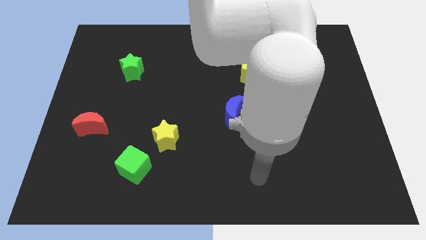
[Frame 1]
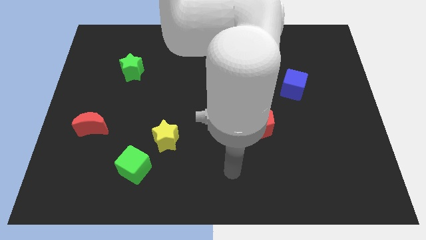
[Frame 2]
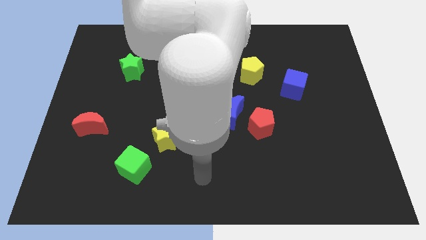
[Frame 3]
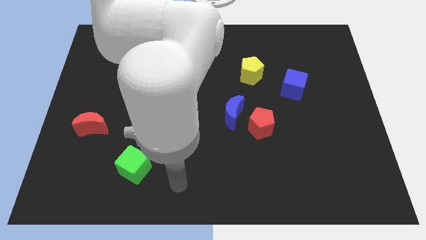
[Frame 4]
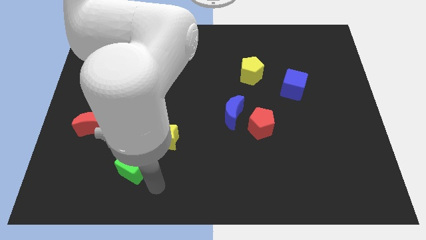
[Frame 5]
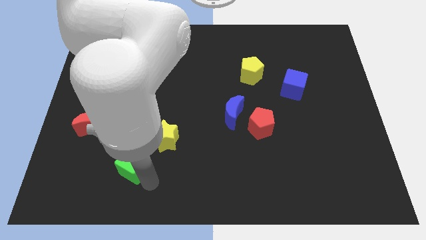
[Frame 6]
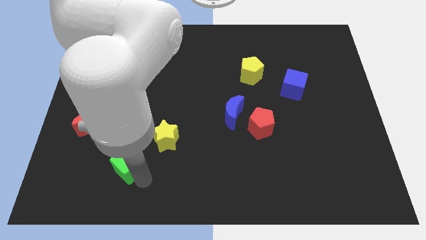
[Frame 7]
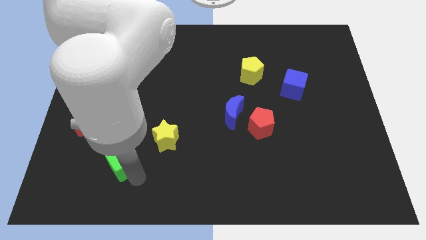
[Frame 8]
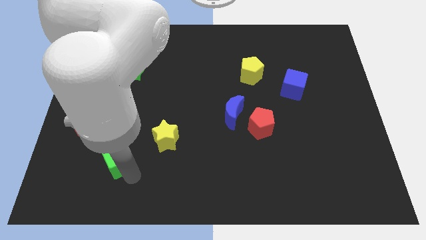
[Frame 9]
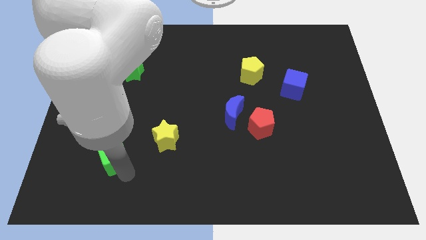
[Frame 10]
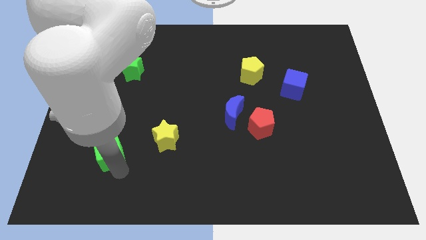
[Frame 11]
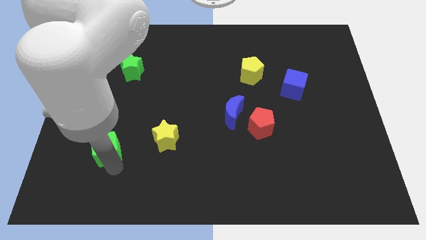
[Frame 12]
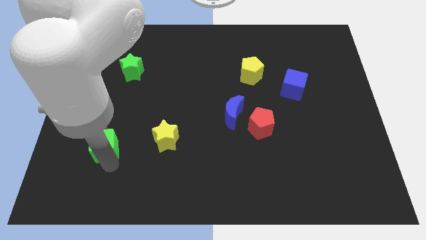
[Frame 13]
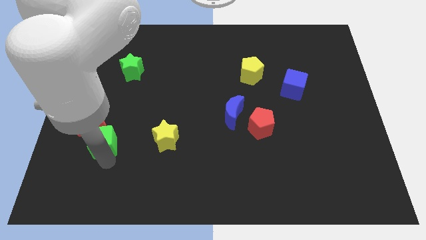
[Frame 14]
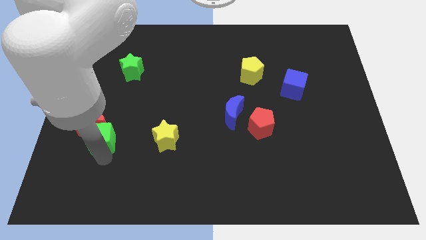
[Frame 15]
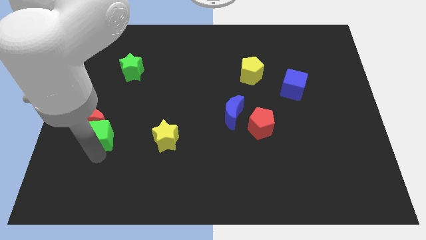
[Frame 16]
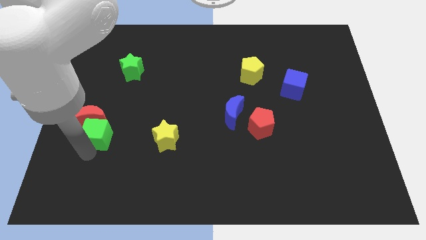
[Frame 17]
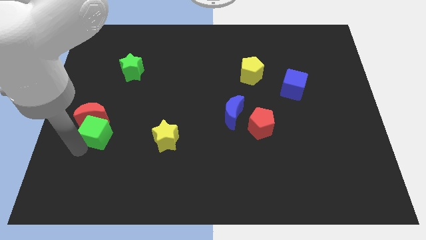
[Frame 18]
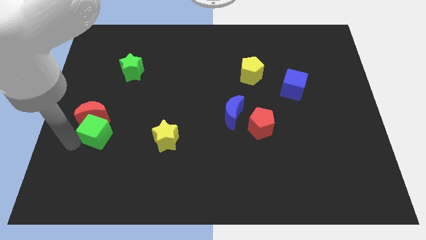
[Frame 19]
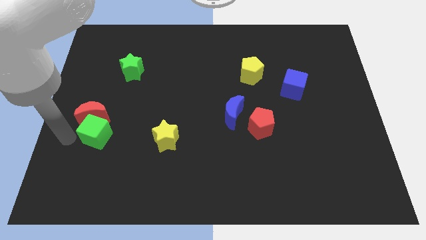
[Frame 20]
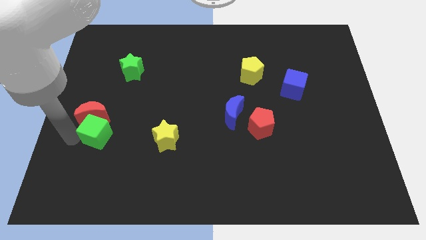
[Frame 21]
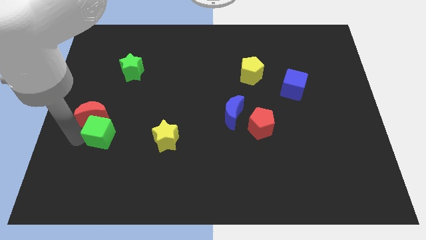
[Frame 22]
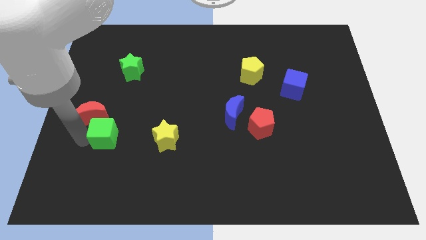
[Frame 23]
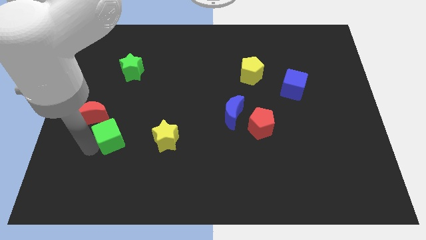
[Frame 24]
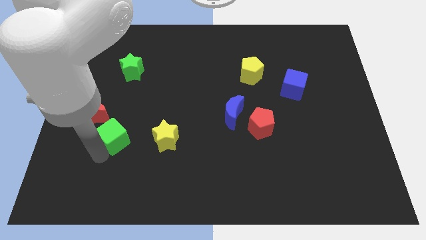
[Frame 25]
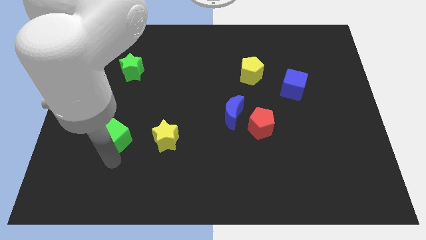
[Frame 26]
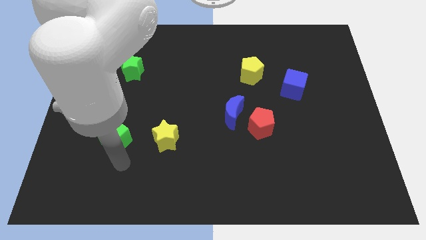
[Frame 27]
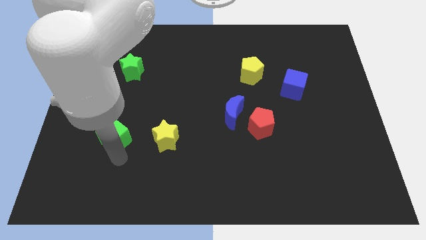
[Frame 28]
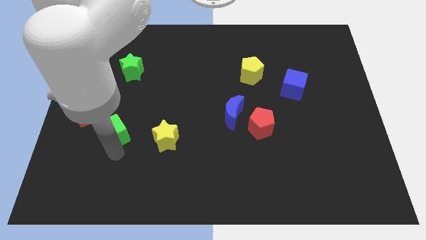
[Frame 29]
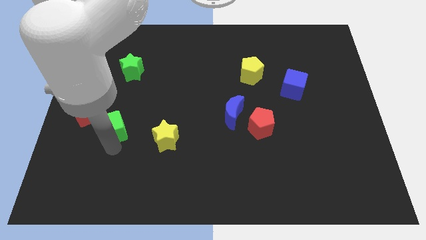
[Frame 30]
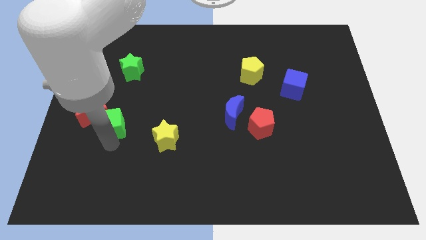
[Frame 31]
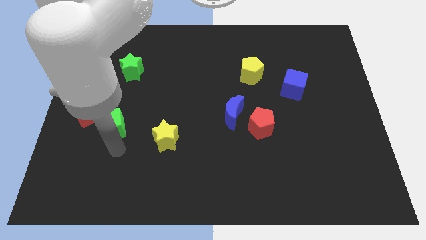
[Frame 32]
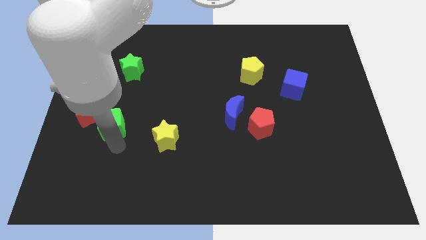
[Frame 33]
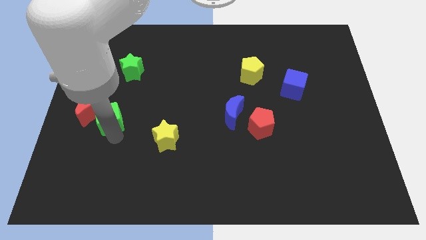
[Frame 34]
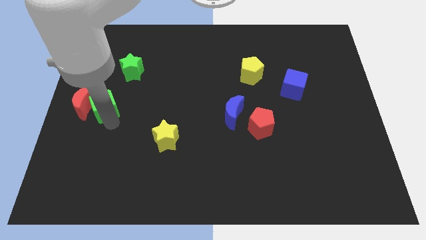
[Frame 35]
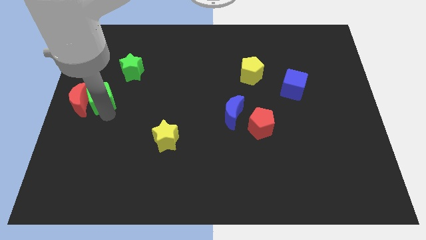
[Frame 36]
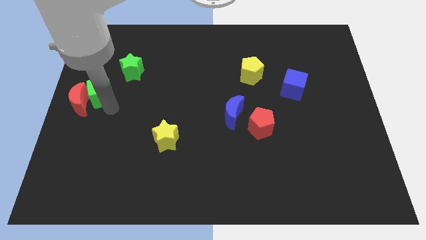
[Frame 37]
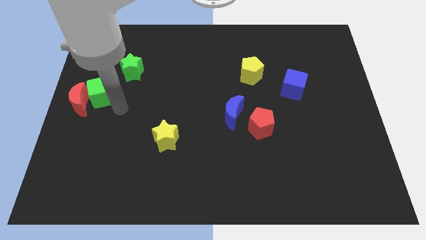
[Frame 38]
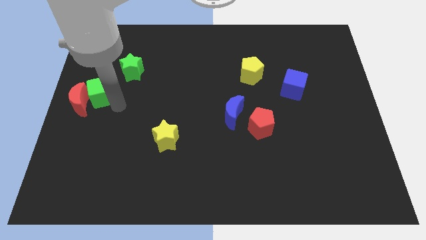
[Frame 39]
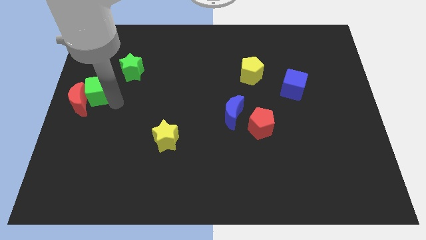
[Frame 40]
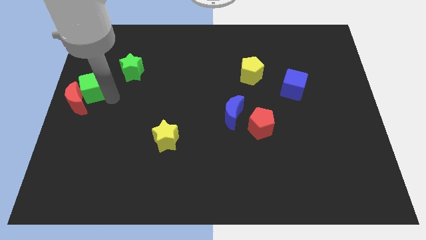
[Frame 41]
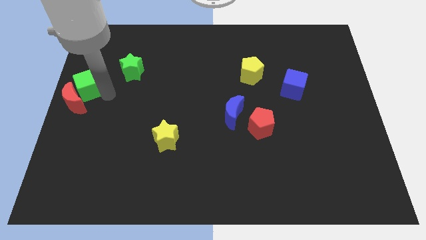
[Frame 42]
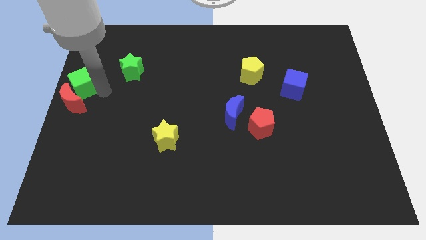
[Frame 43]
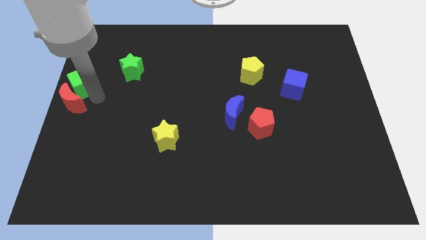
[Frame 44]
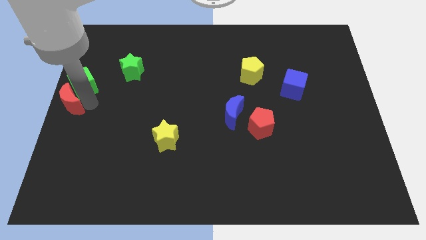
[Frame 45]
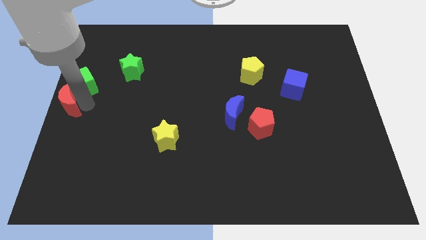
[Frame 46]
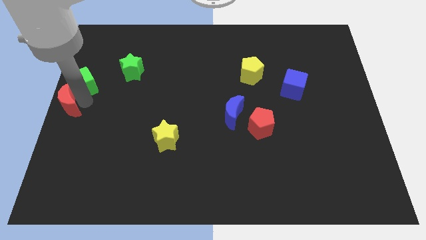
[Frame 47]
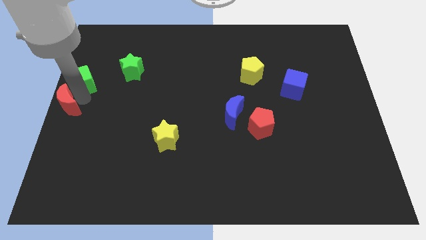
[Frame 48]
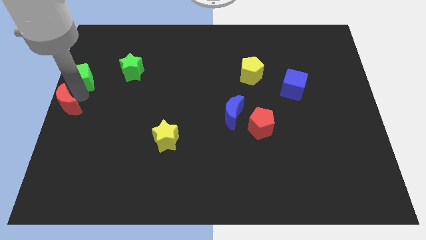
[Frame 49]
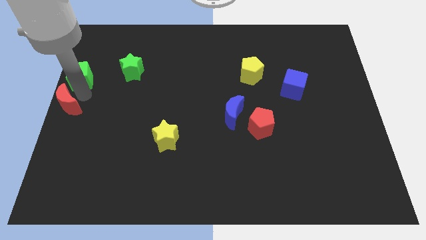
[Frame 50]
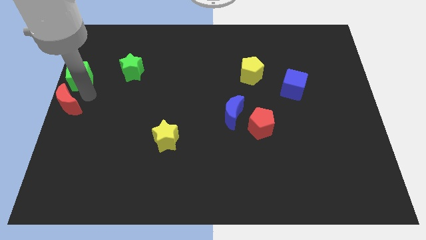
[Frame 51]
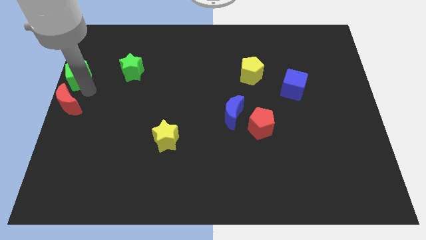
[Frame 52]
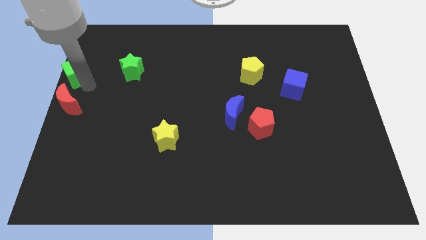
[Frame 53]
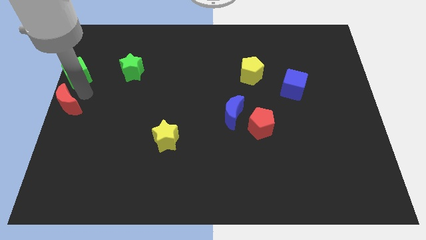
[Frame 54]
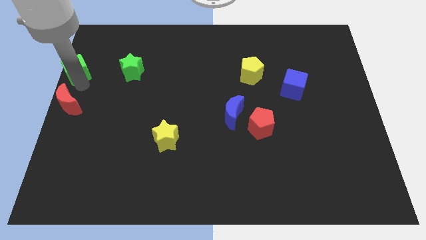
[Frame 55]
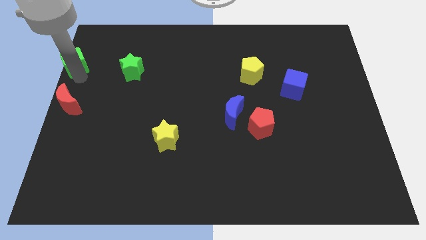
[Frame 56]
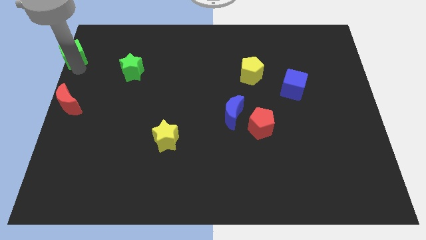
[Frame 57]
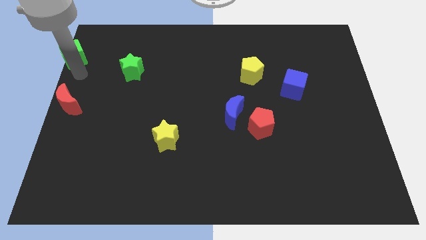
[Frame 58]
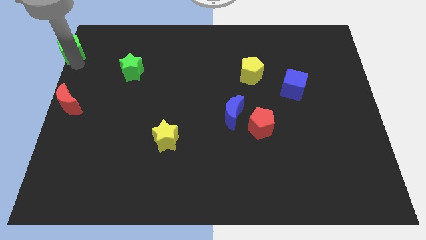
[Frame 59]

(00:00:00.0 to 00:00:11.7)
slide the green cube to the top left of the board

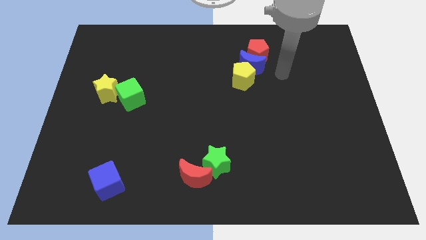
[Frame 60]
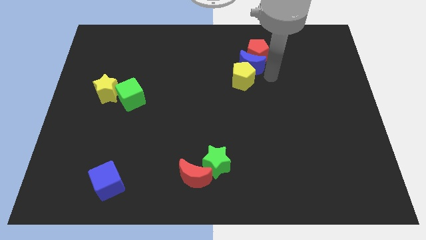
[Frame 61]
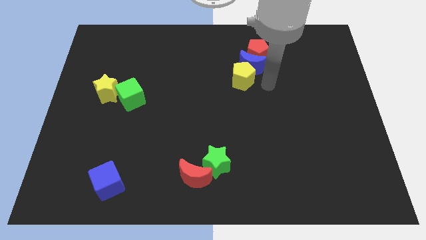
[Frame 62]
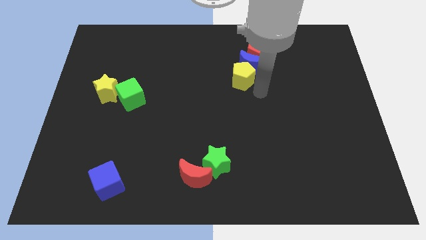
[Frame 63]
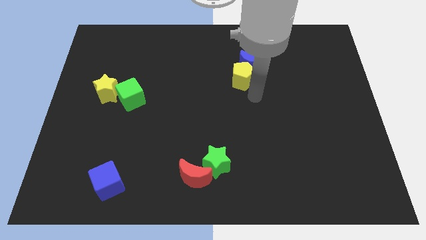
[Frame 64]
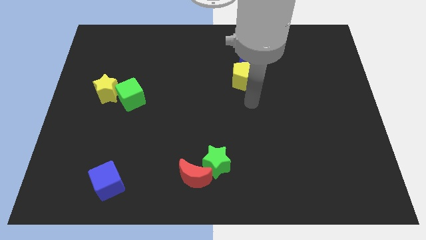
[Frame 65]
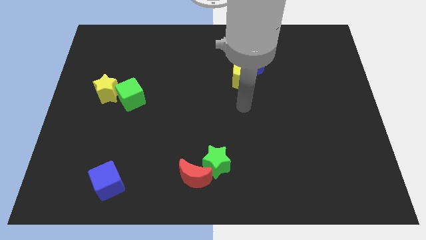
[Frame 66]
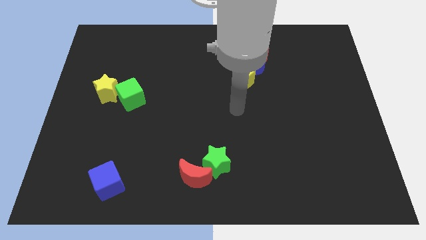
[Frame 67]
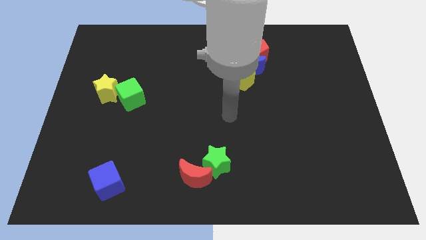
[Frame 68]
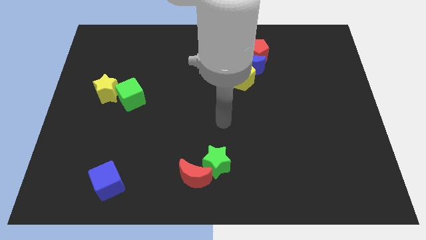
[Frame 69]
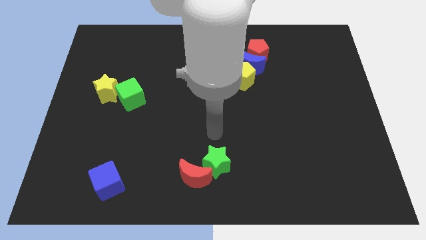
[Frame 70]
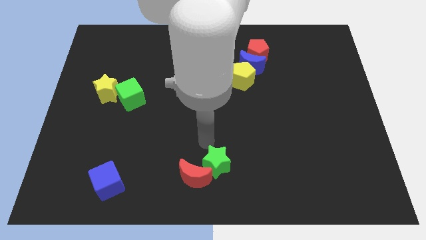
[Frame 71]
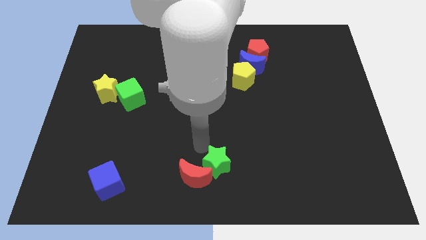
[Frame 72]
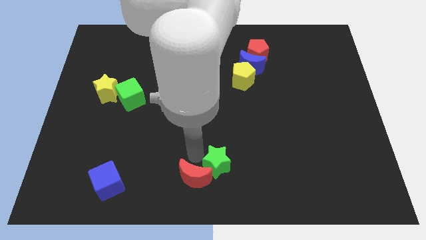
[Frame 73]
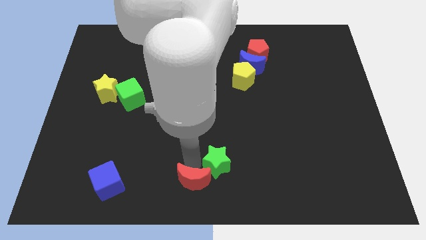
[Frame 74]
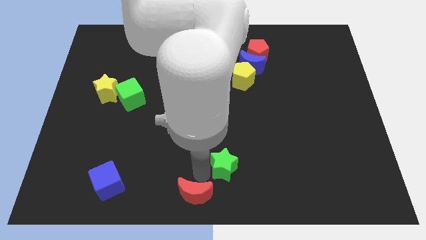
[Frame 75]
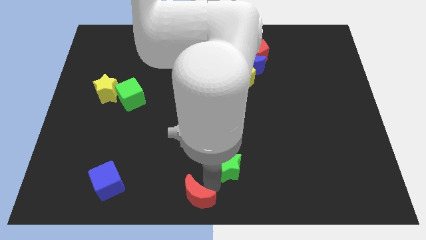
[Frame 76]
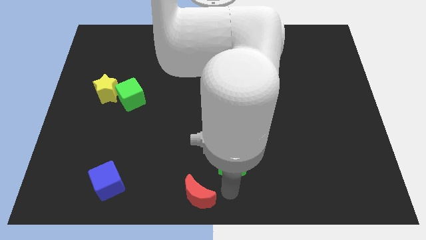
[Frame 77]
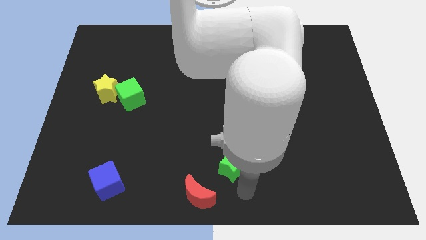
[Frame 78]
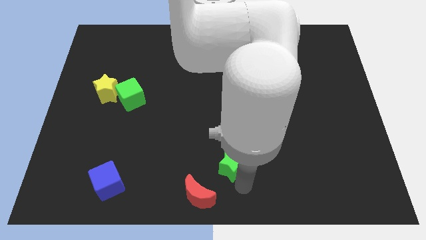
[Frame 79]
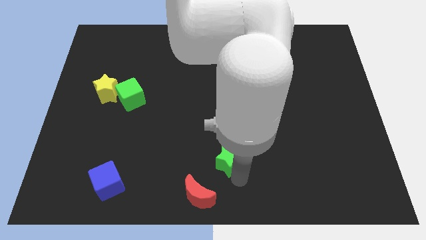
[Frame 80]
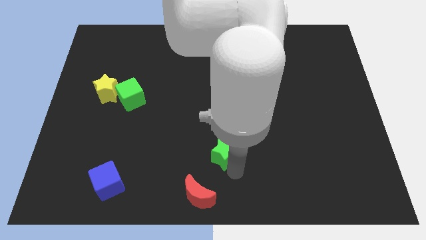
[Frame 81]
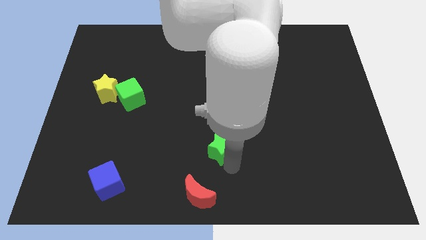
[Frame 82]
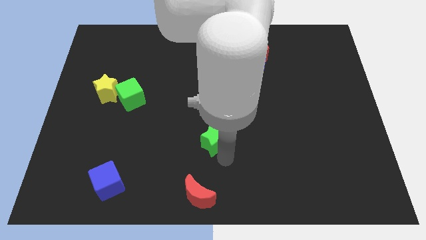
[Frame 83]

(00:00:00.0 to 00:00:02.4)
put the green star to the middle
